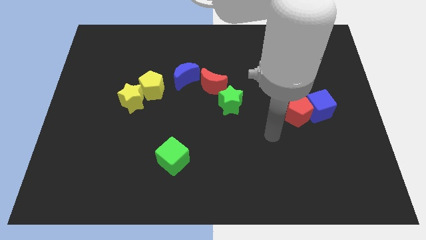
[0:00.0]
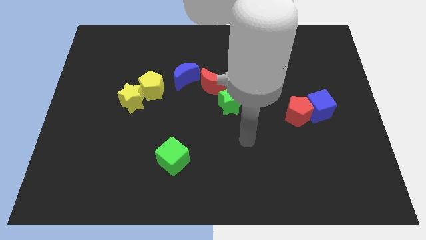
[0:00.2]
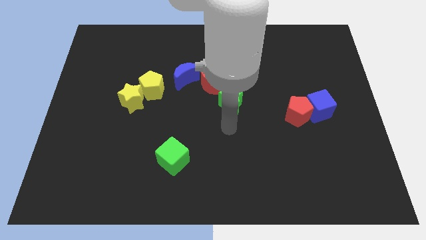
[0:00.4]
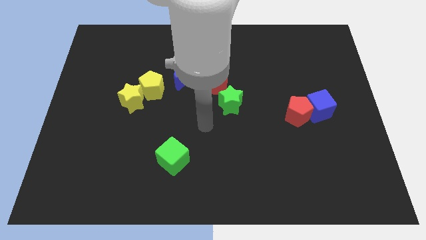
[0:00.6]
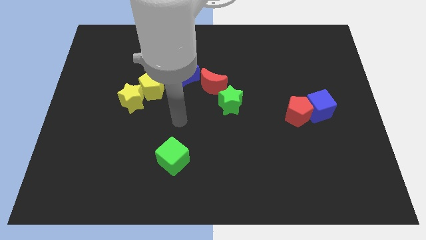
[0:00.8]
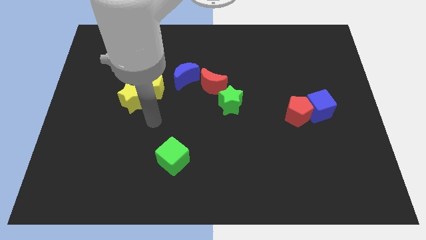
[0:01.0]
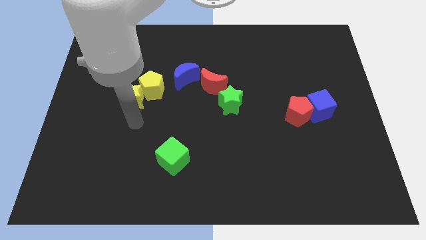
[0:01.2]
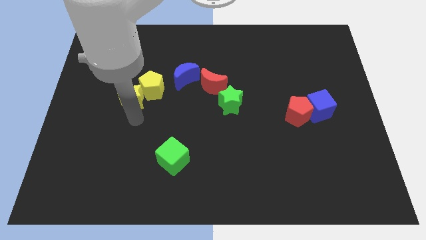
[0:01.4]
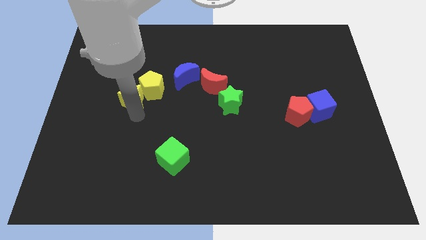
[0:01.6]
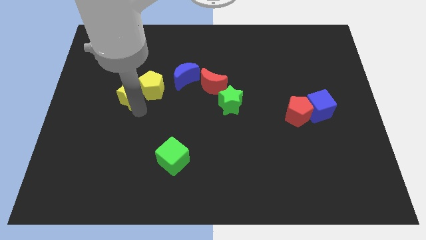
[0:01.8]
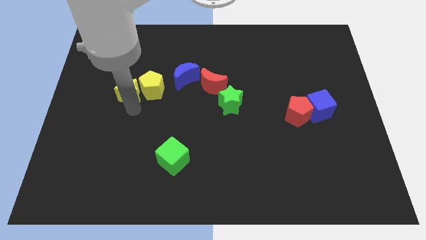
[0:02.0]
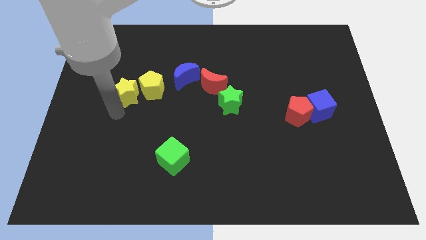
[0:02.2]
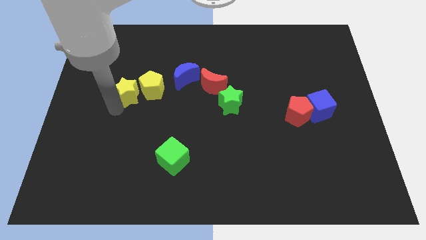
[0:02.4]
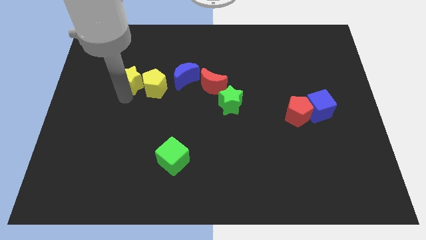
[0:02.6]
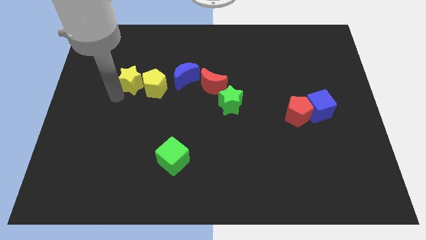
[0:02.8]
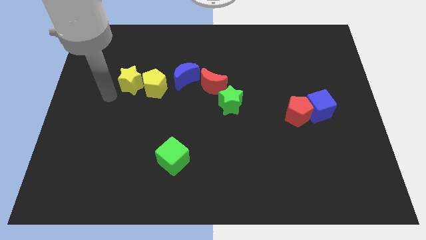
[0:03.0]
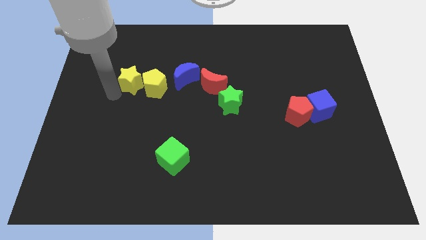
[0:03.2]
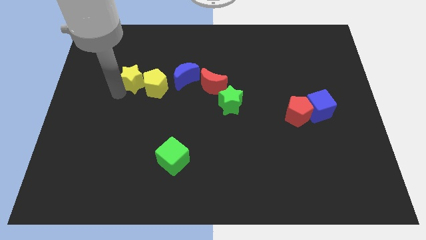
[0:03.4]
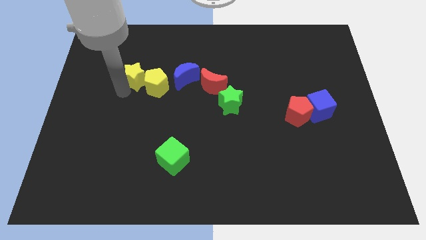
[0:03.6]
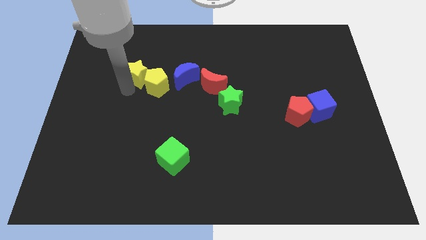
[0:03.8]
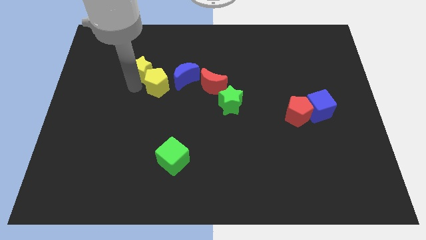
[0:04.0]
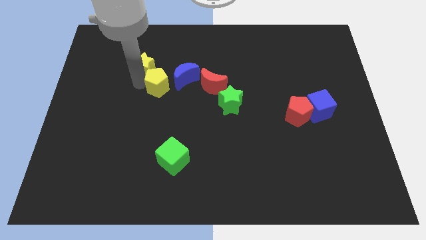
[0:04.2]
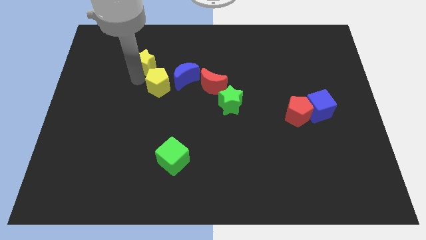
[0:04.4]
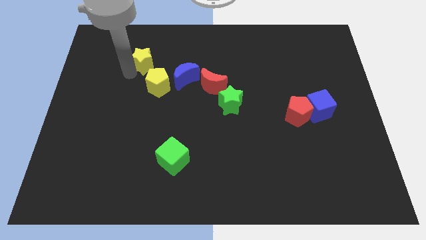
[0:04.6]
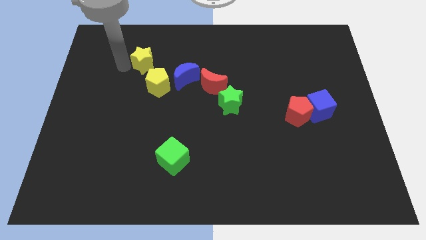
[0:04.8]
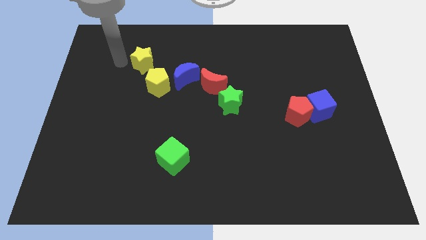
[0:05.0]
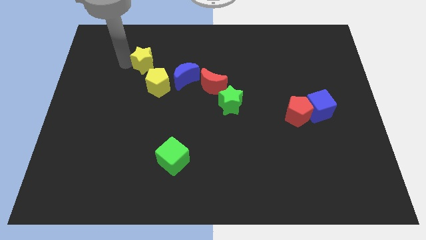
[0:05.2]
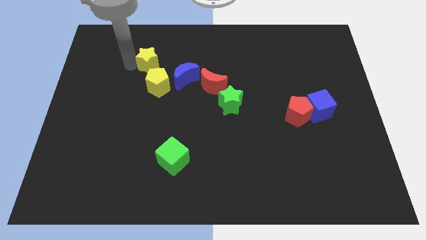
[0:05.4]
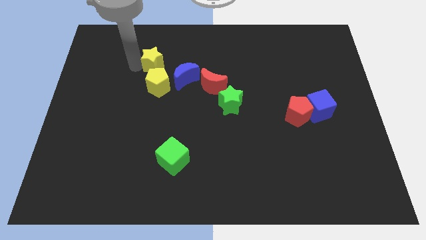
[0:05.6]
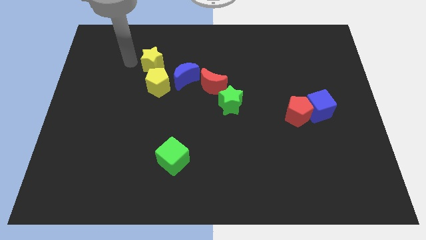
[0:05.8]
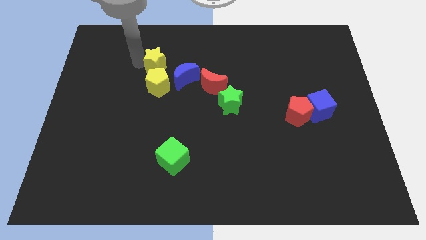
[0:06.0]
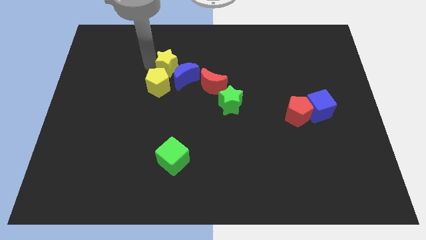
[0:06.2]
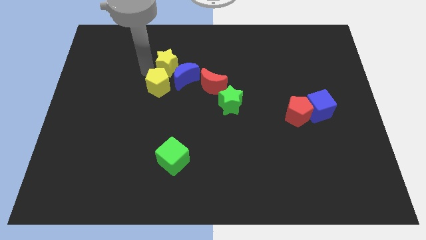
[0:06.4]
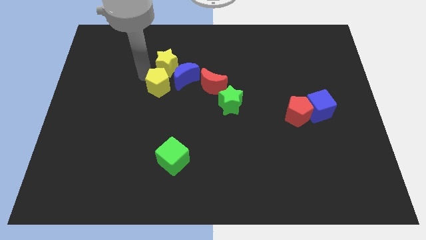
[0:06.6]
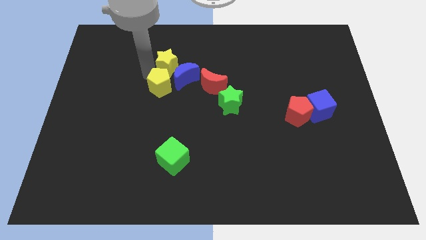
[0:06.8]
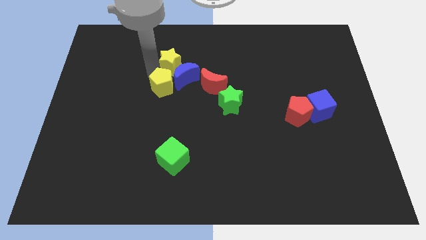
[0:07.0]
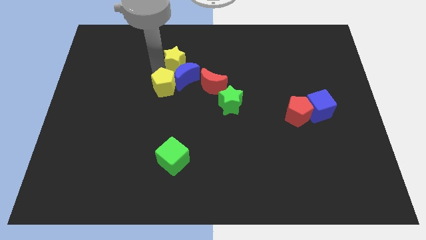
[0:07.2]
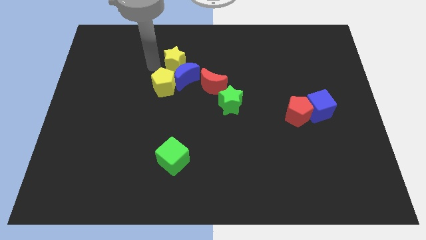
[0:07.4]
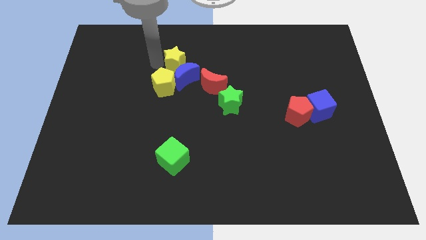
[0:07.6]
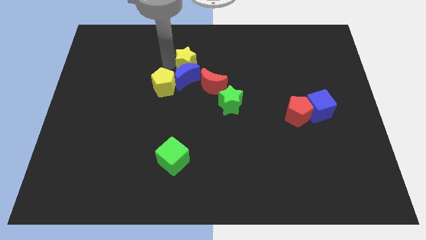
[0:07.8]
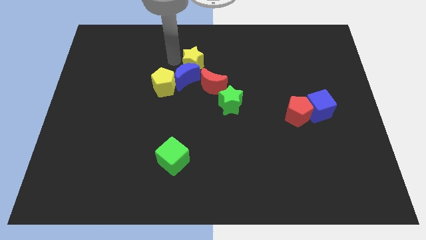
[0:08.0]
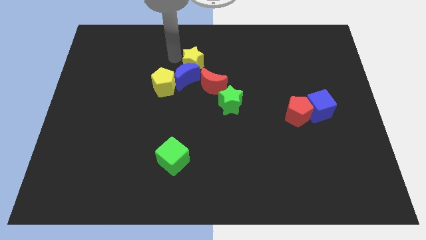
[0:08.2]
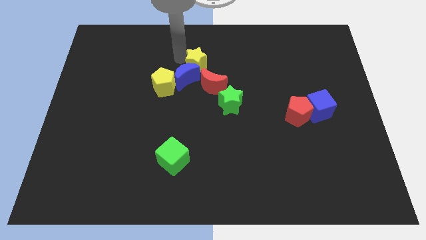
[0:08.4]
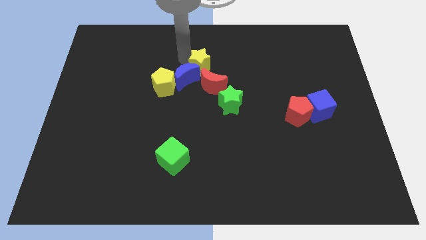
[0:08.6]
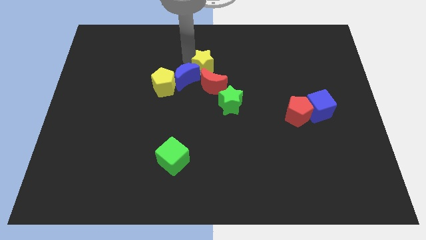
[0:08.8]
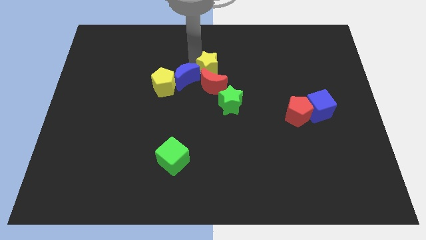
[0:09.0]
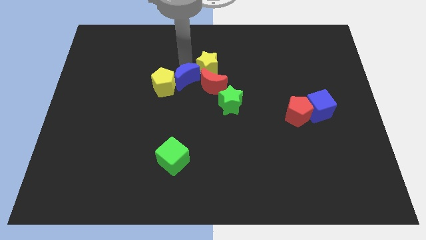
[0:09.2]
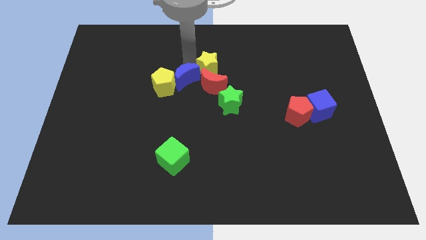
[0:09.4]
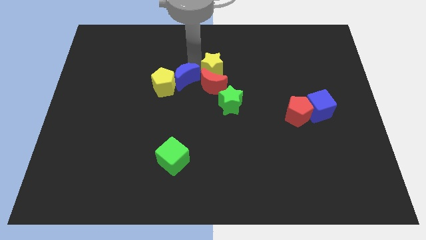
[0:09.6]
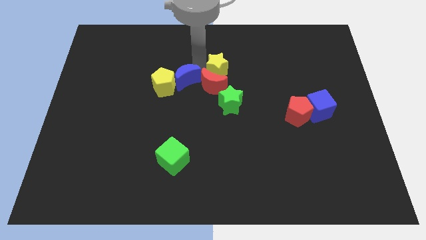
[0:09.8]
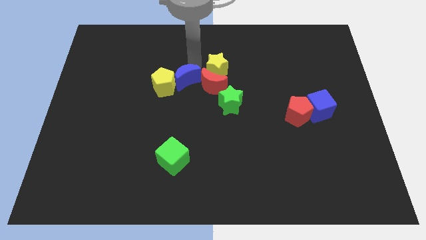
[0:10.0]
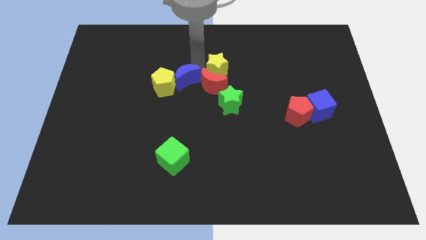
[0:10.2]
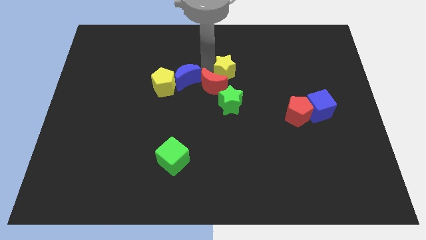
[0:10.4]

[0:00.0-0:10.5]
move the yellow star to the right of the red moon

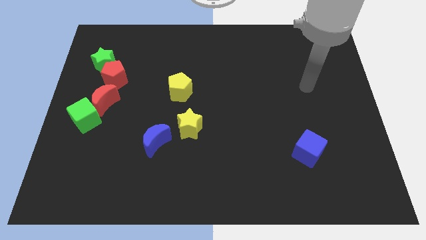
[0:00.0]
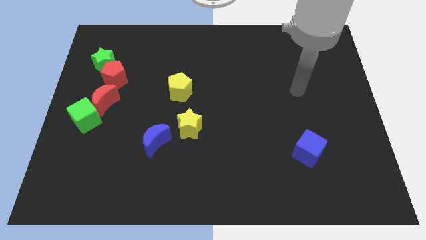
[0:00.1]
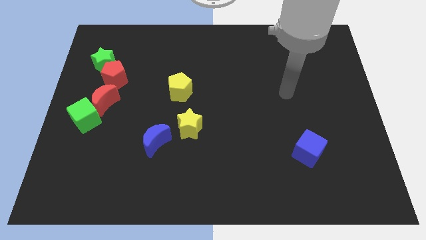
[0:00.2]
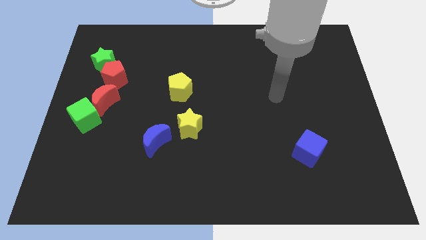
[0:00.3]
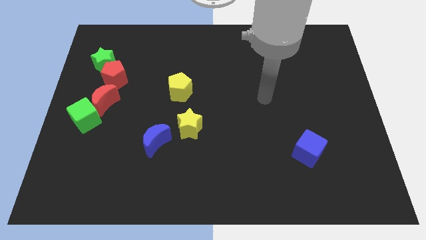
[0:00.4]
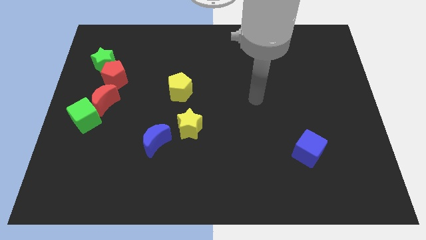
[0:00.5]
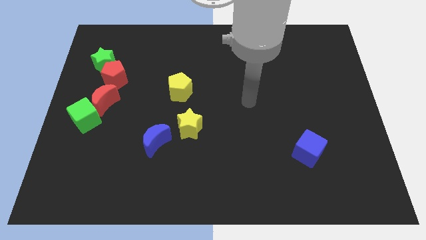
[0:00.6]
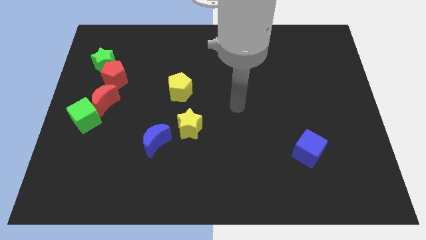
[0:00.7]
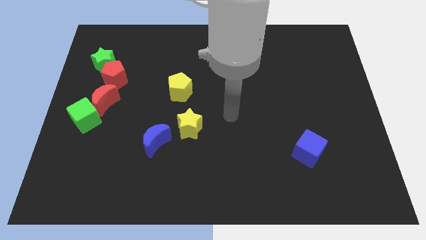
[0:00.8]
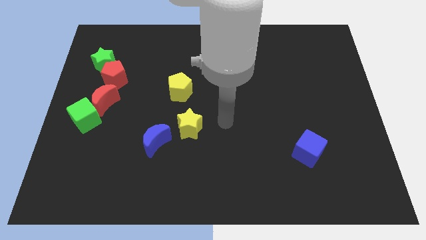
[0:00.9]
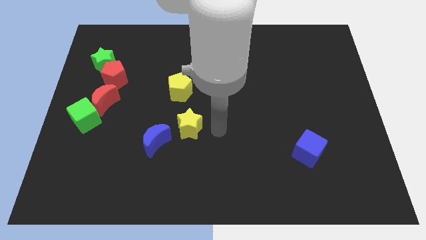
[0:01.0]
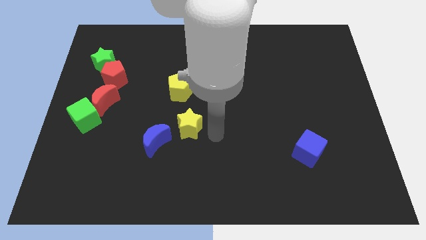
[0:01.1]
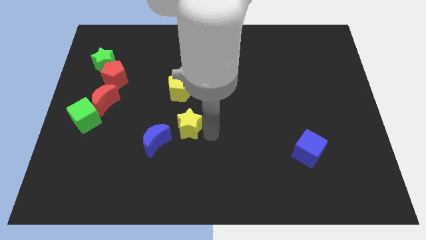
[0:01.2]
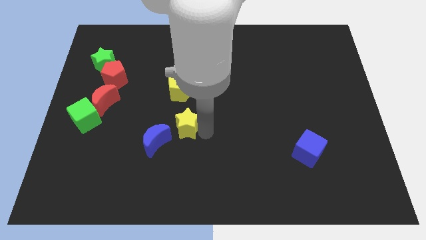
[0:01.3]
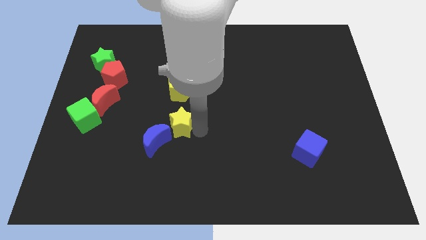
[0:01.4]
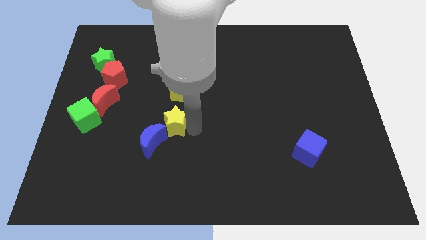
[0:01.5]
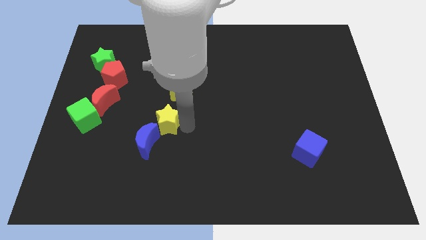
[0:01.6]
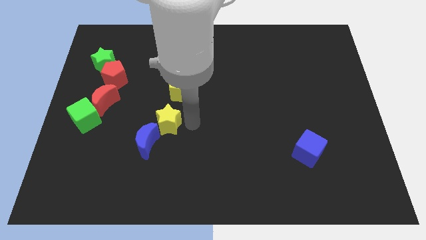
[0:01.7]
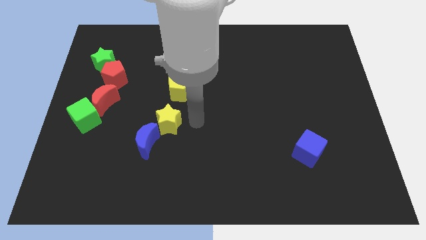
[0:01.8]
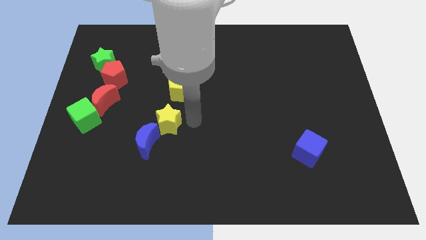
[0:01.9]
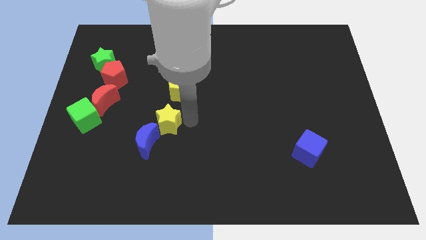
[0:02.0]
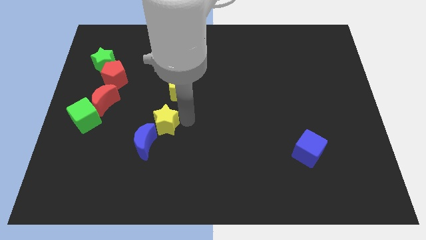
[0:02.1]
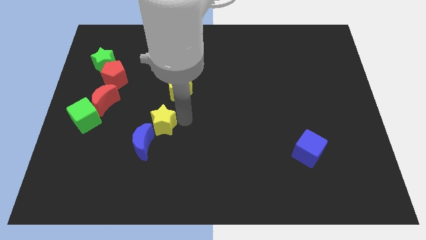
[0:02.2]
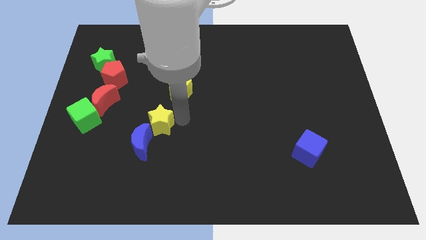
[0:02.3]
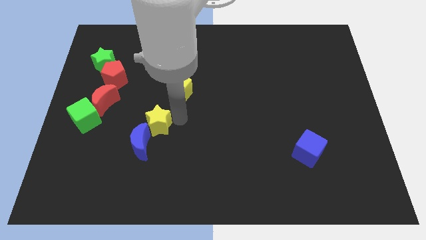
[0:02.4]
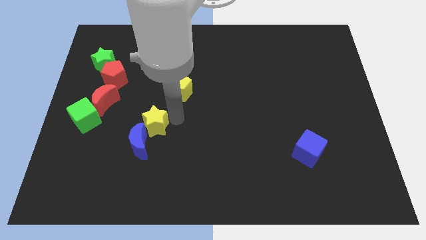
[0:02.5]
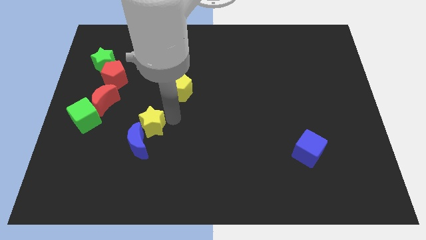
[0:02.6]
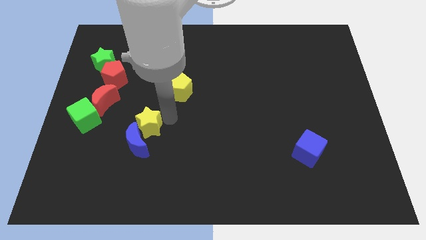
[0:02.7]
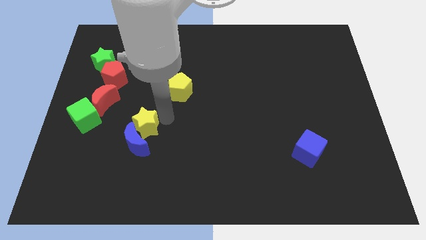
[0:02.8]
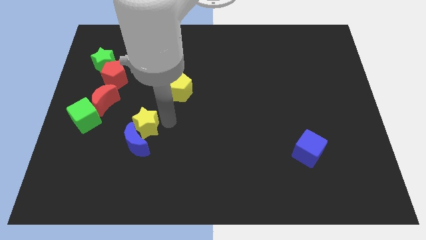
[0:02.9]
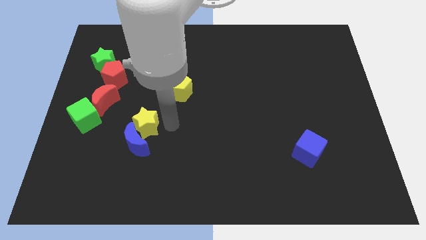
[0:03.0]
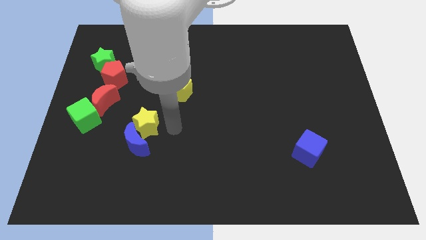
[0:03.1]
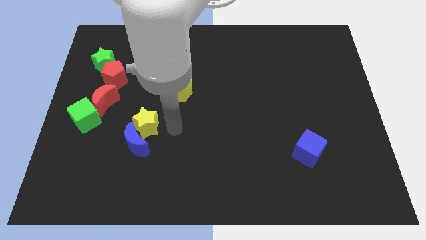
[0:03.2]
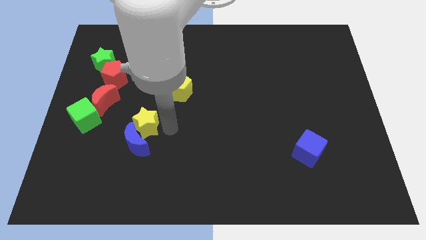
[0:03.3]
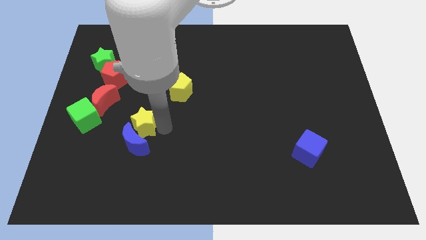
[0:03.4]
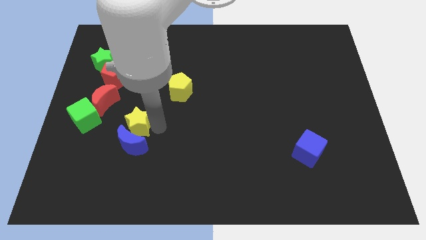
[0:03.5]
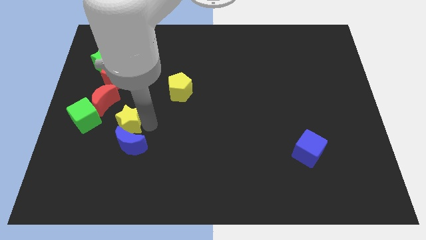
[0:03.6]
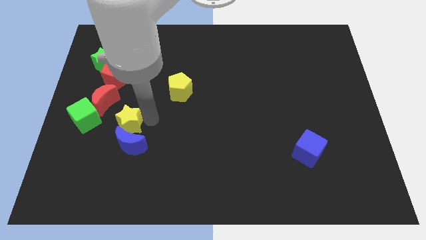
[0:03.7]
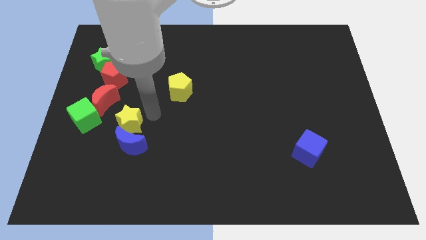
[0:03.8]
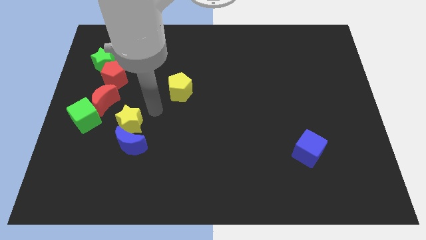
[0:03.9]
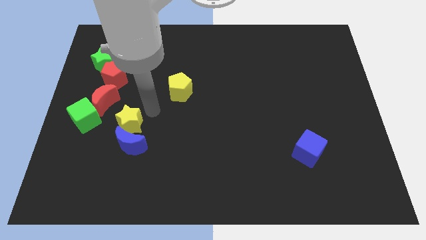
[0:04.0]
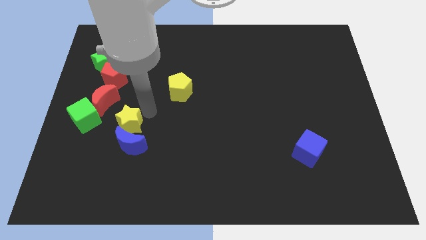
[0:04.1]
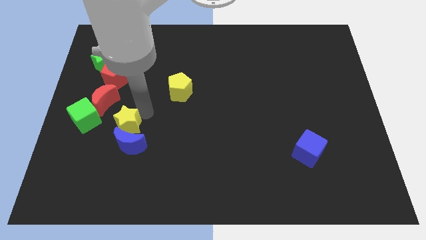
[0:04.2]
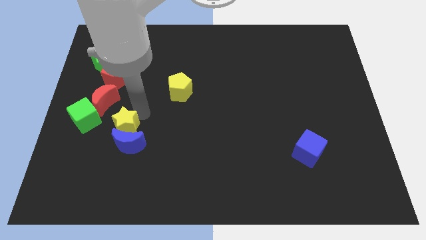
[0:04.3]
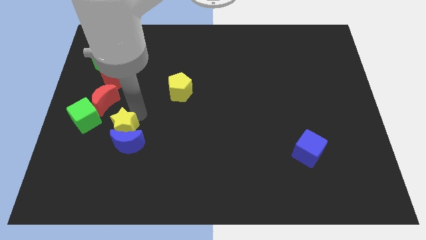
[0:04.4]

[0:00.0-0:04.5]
slide the yellow star to the bottom right of the green cube
